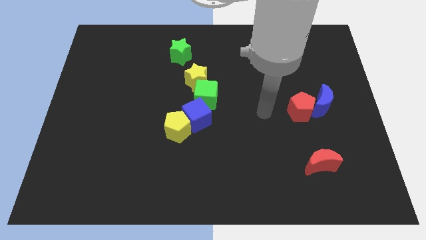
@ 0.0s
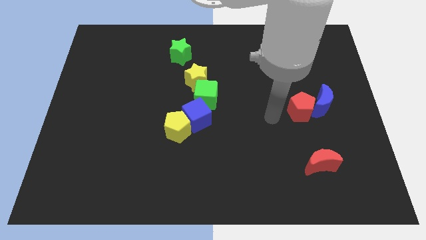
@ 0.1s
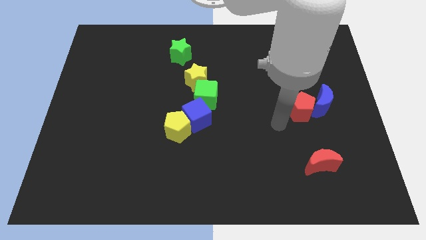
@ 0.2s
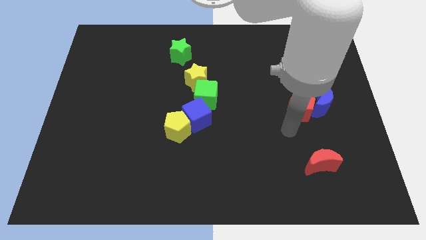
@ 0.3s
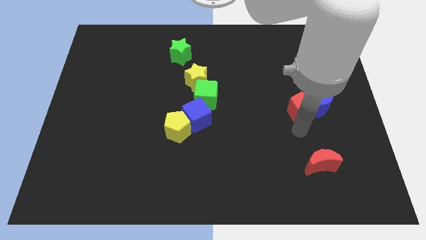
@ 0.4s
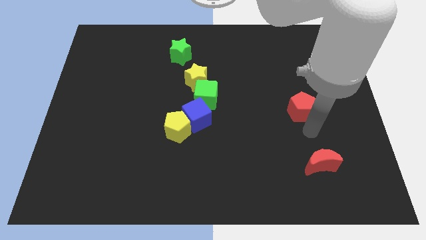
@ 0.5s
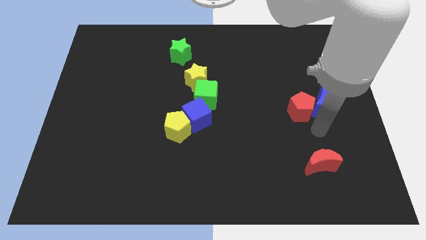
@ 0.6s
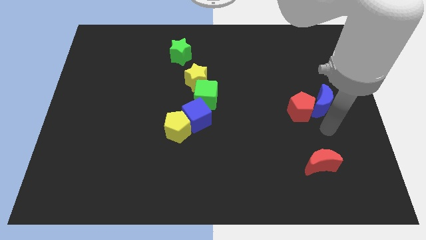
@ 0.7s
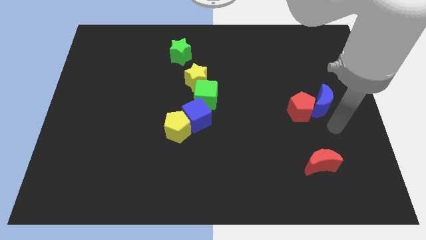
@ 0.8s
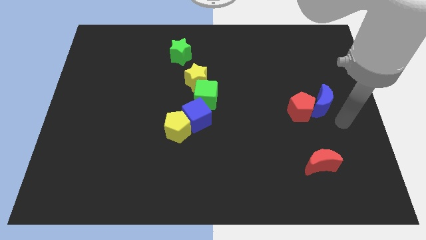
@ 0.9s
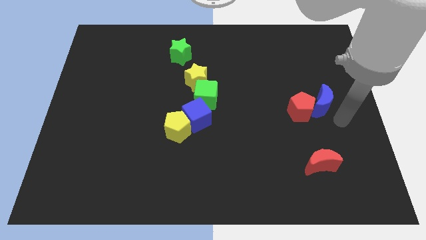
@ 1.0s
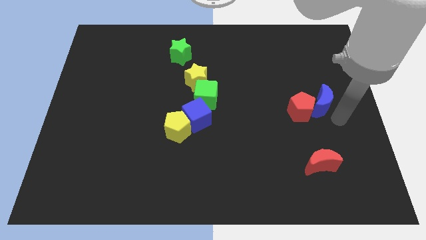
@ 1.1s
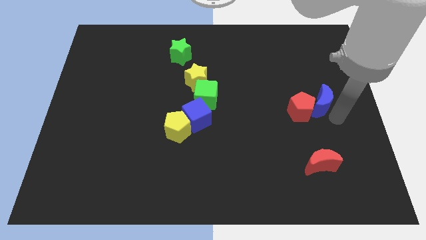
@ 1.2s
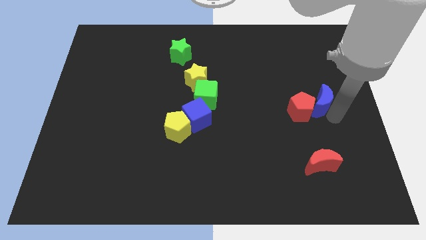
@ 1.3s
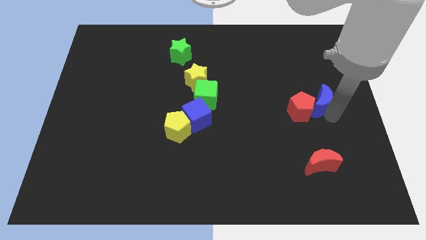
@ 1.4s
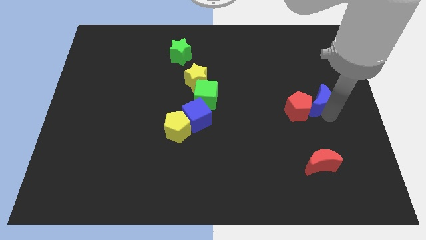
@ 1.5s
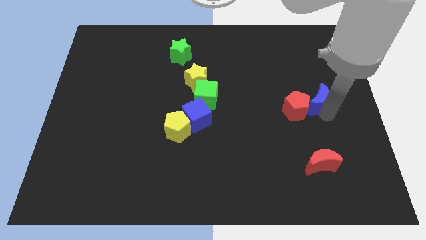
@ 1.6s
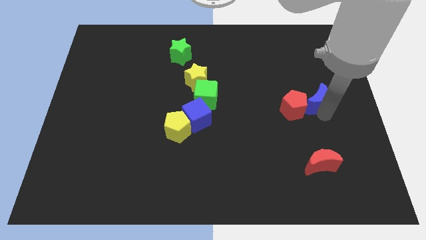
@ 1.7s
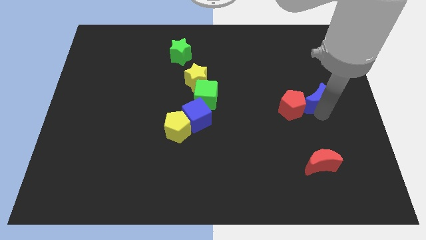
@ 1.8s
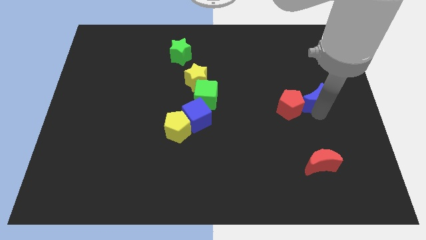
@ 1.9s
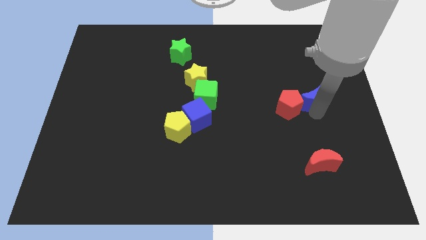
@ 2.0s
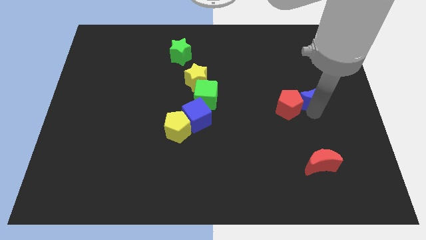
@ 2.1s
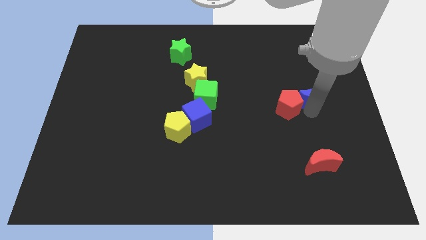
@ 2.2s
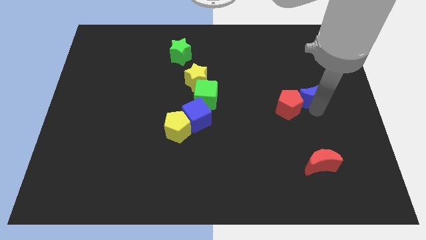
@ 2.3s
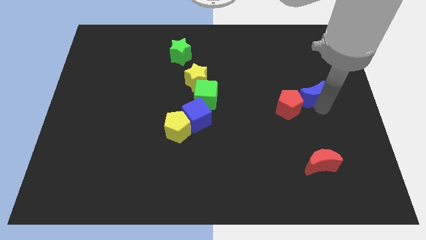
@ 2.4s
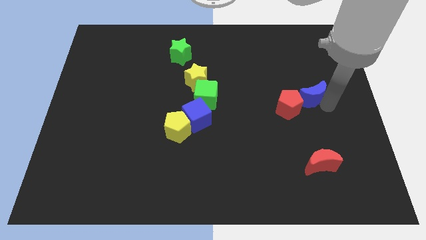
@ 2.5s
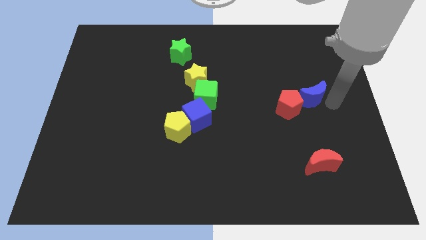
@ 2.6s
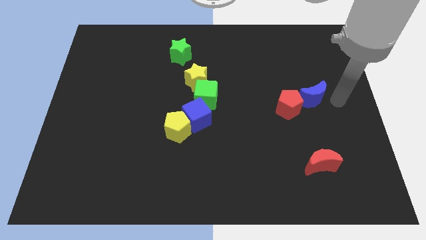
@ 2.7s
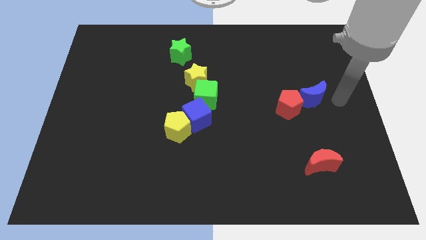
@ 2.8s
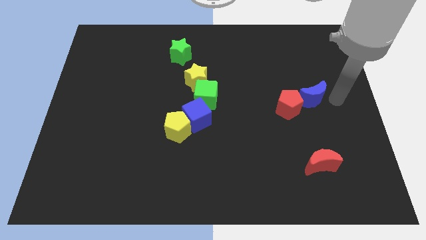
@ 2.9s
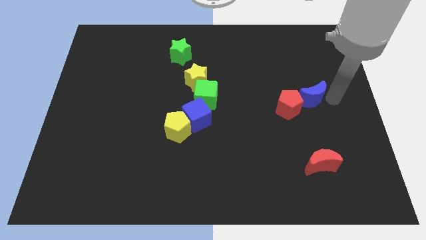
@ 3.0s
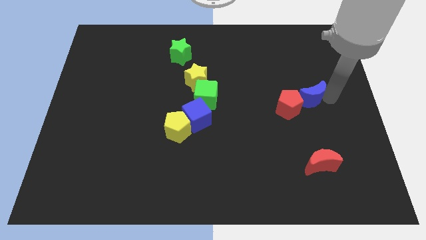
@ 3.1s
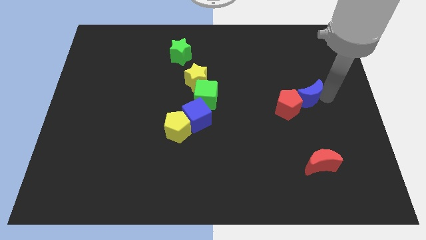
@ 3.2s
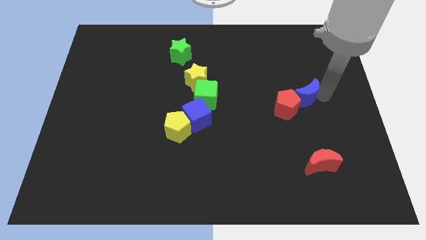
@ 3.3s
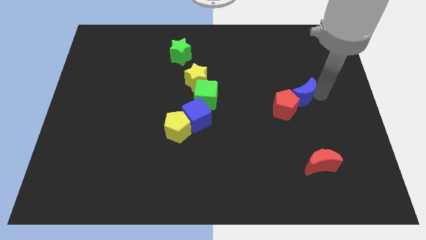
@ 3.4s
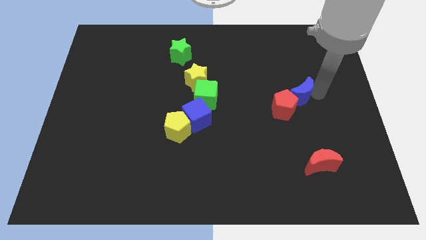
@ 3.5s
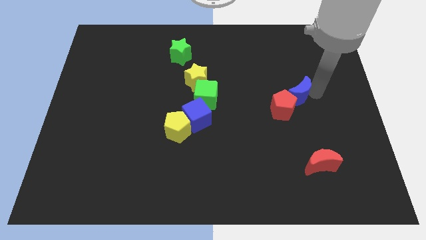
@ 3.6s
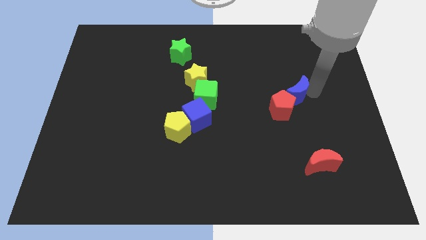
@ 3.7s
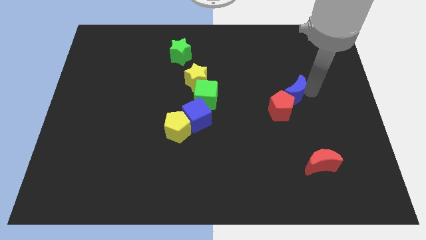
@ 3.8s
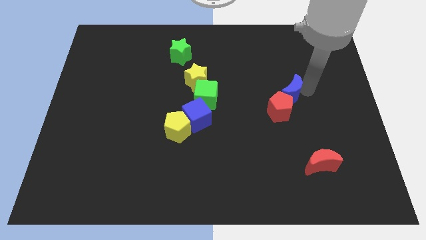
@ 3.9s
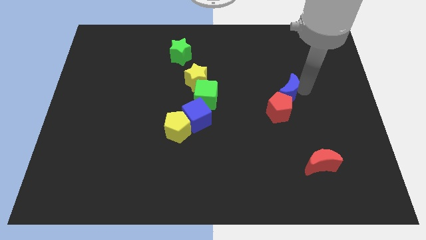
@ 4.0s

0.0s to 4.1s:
slide the blue moon to the left slightly

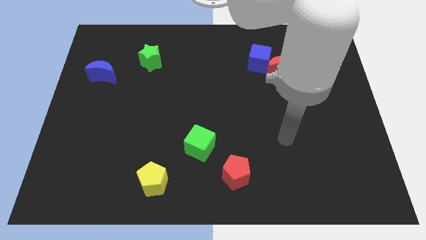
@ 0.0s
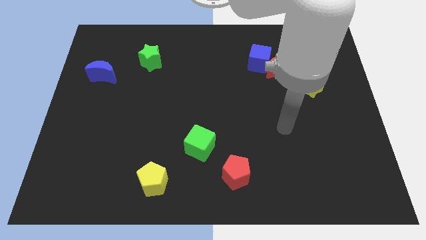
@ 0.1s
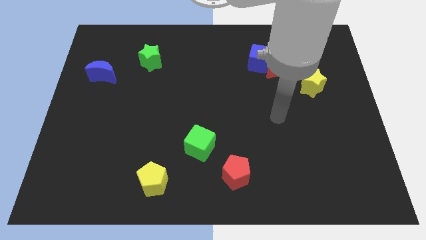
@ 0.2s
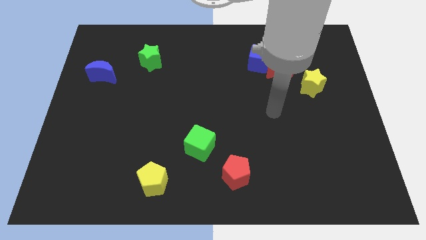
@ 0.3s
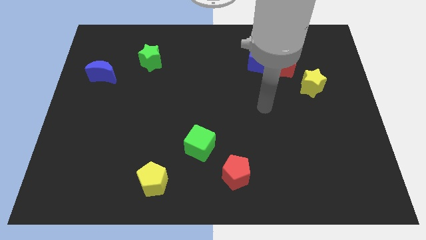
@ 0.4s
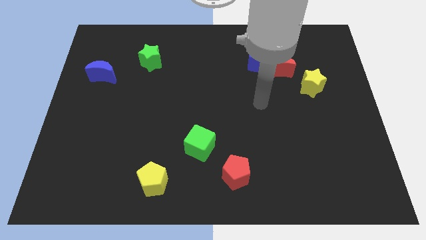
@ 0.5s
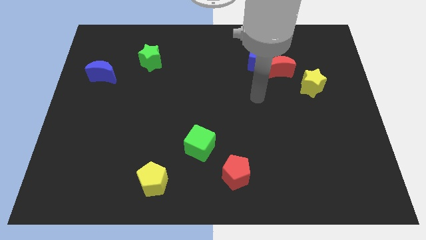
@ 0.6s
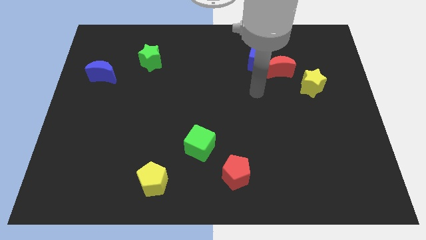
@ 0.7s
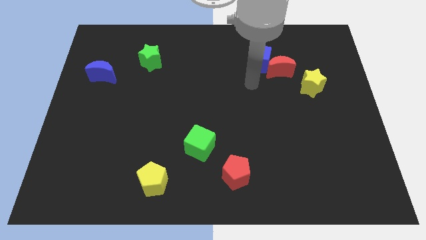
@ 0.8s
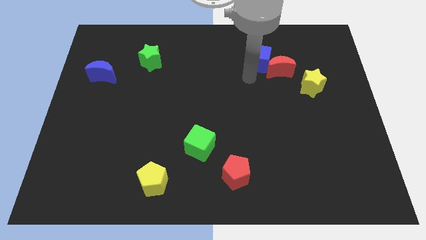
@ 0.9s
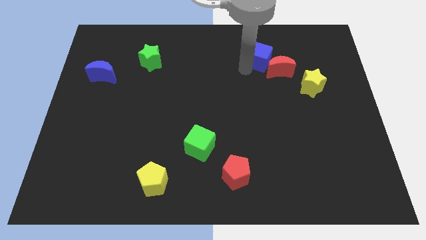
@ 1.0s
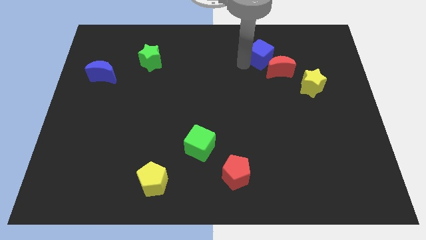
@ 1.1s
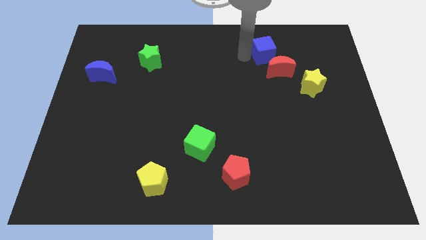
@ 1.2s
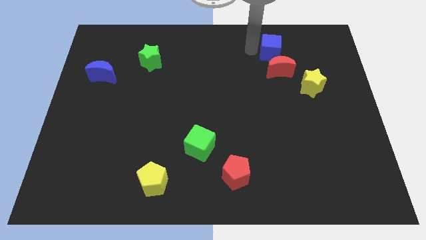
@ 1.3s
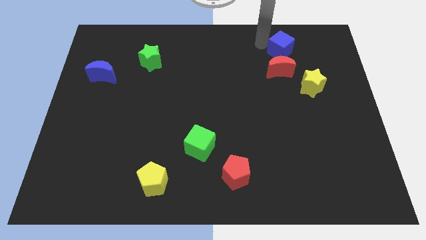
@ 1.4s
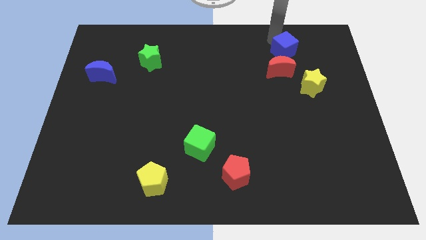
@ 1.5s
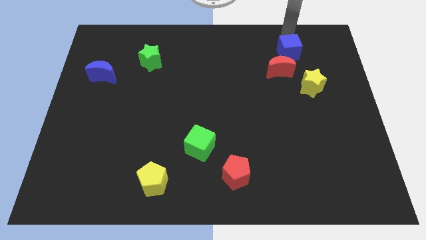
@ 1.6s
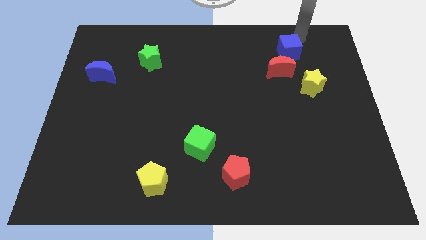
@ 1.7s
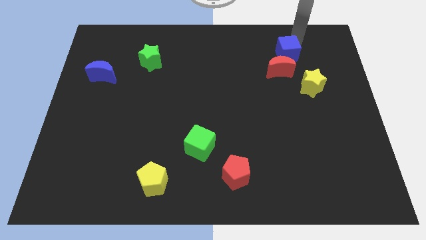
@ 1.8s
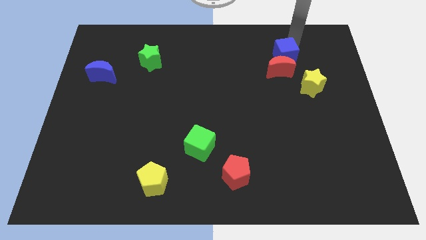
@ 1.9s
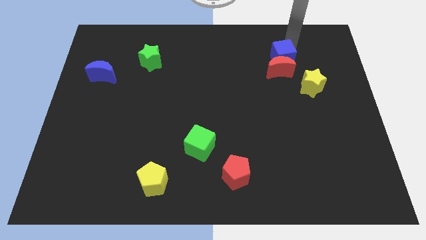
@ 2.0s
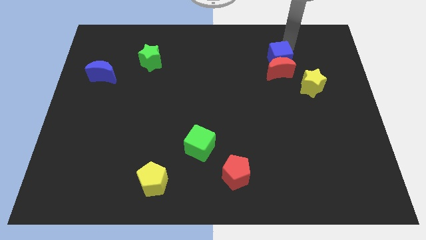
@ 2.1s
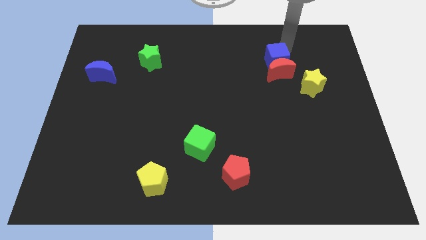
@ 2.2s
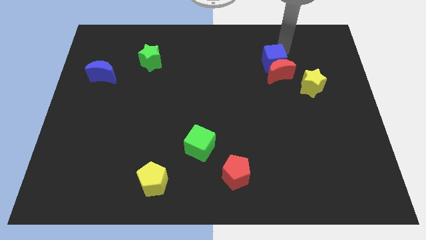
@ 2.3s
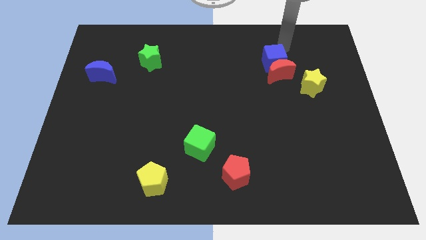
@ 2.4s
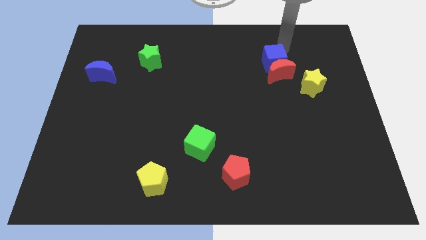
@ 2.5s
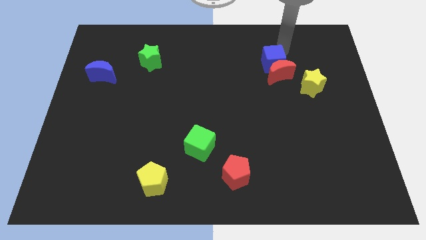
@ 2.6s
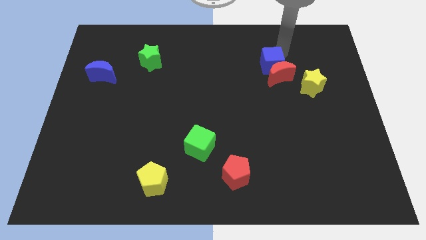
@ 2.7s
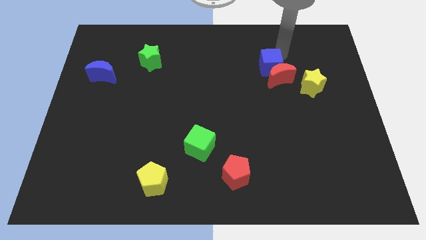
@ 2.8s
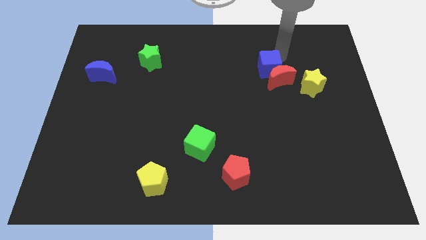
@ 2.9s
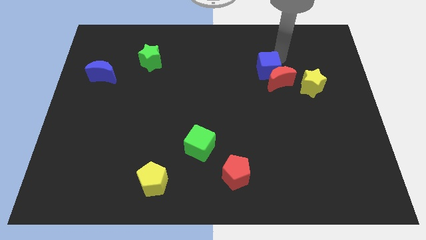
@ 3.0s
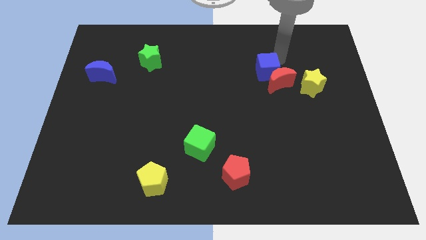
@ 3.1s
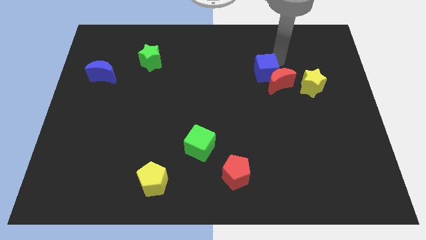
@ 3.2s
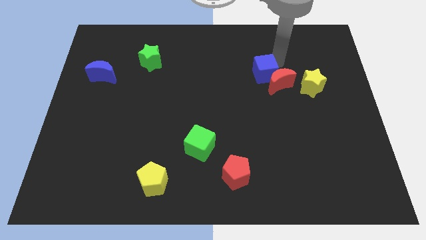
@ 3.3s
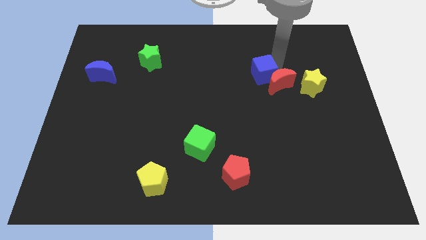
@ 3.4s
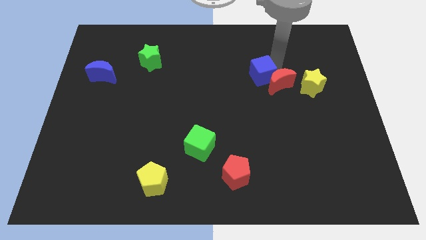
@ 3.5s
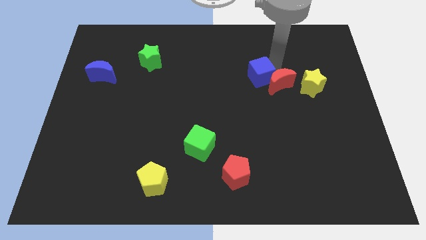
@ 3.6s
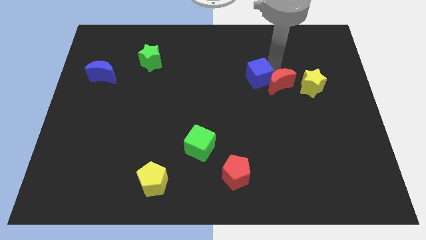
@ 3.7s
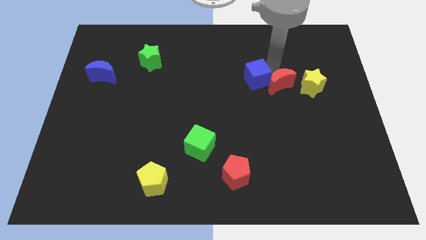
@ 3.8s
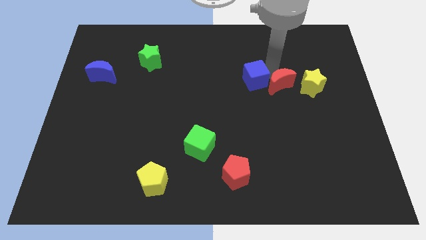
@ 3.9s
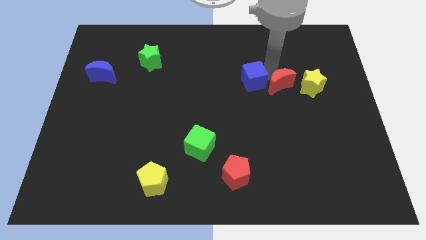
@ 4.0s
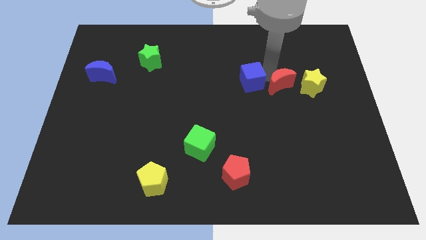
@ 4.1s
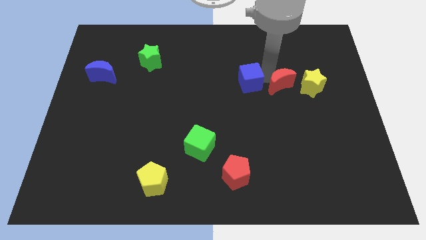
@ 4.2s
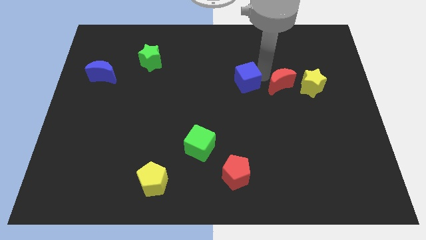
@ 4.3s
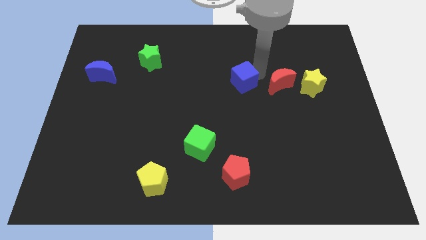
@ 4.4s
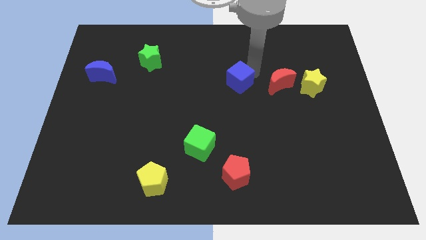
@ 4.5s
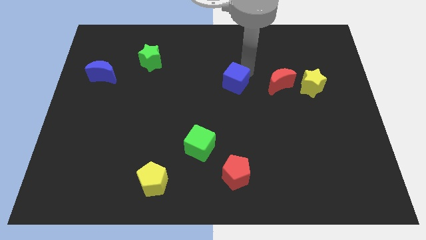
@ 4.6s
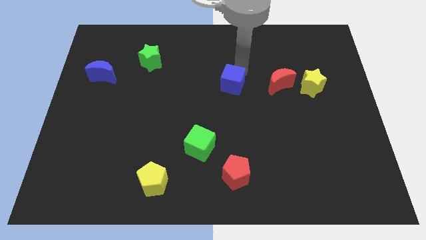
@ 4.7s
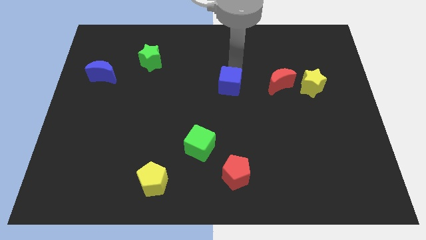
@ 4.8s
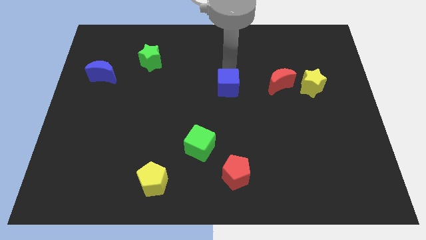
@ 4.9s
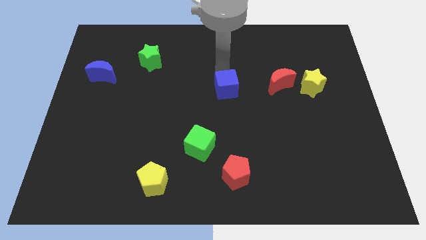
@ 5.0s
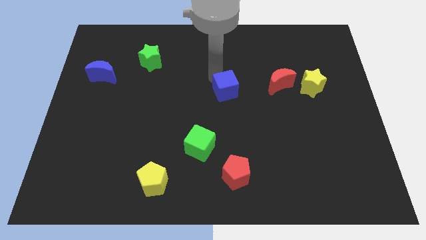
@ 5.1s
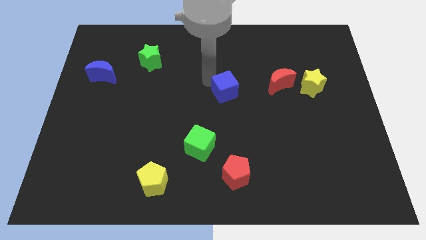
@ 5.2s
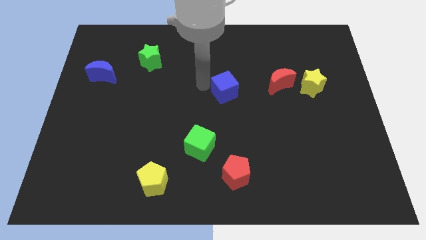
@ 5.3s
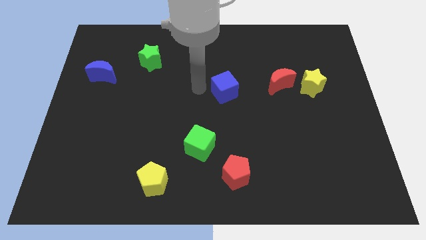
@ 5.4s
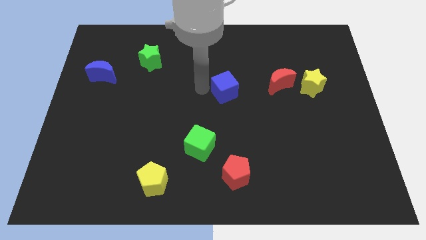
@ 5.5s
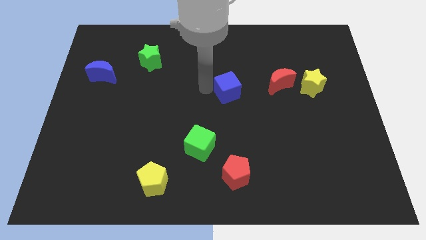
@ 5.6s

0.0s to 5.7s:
slightly push the blue cube downwards
